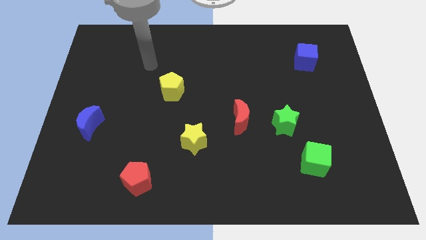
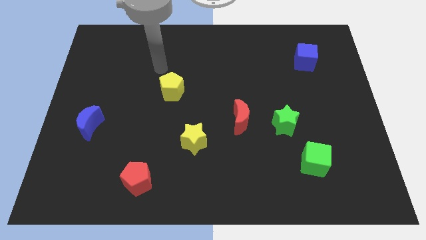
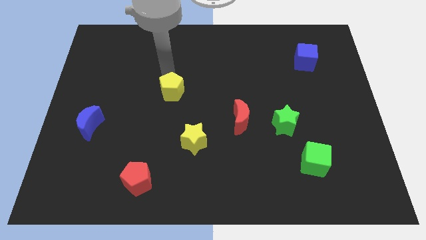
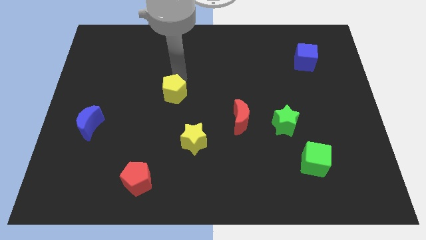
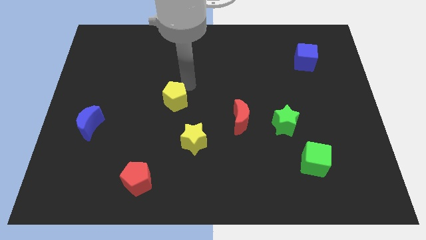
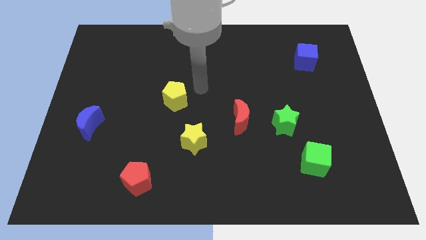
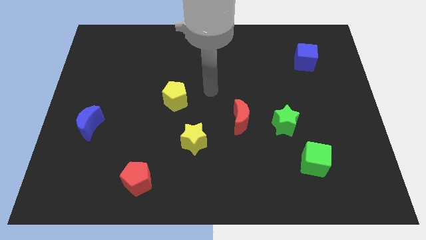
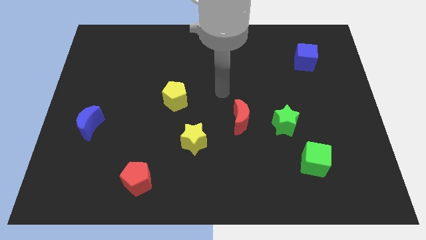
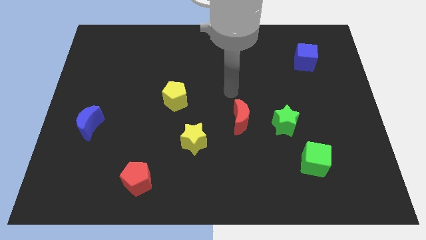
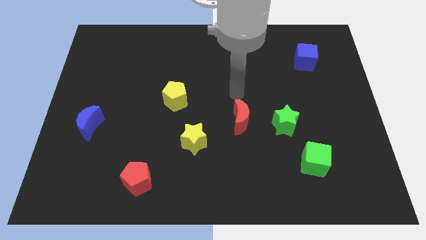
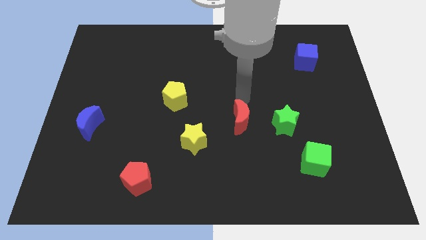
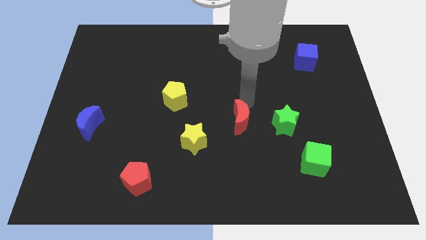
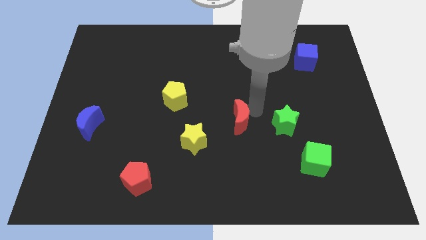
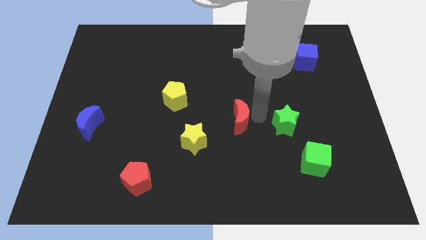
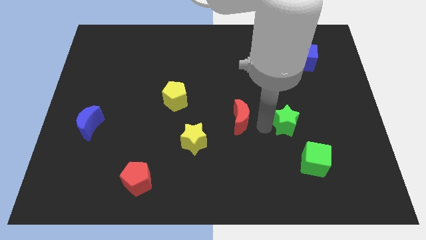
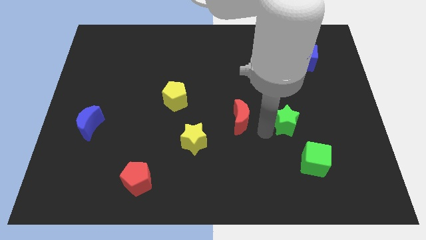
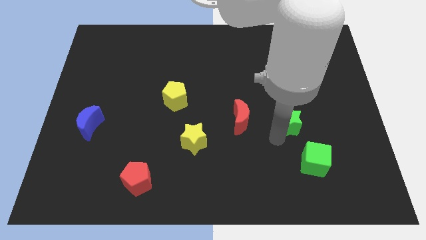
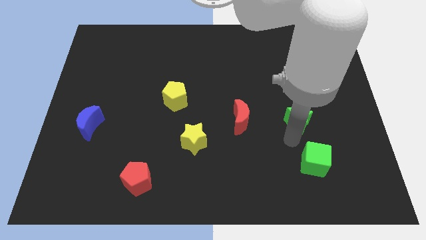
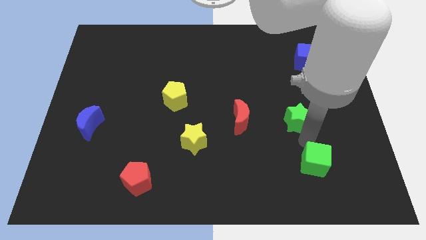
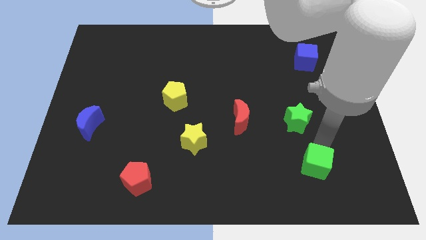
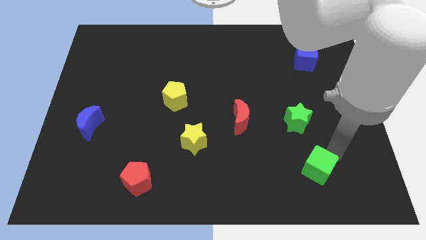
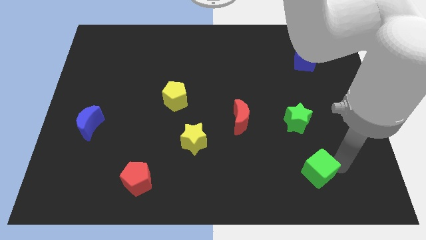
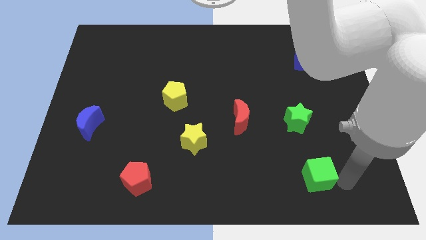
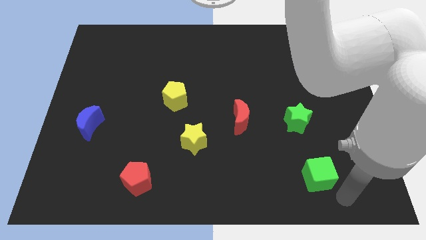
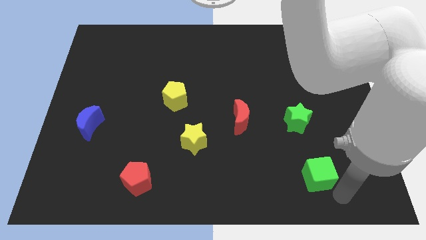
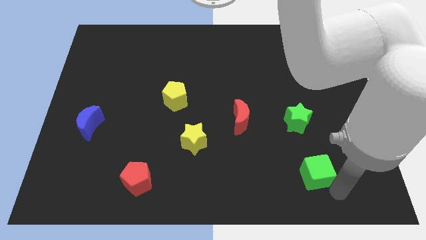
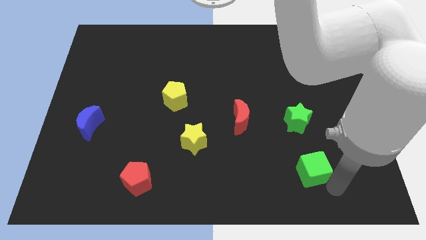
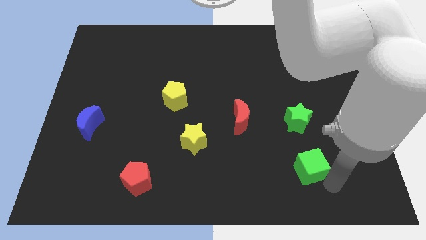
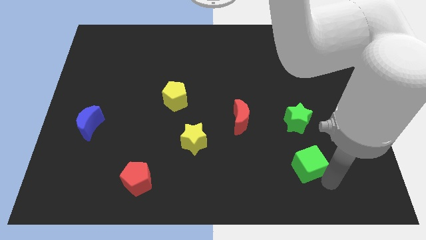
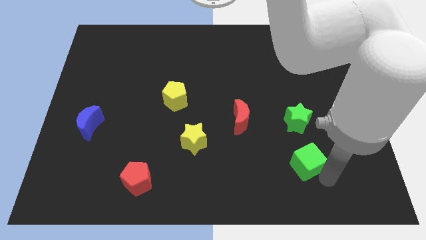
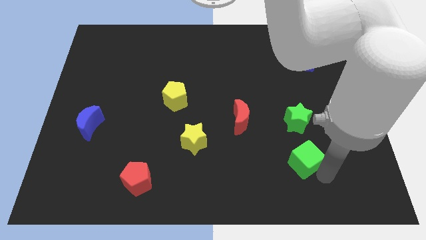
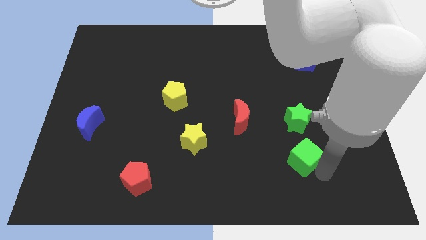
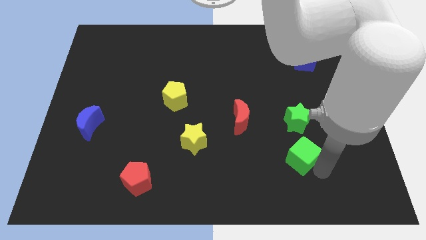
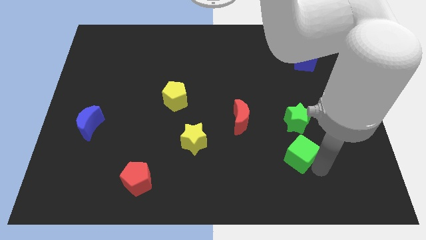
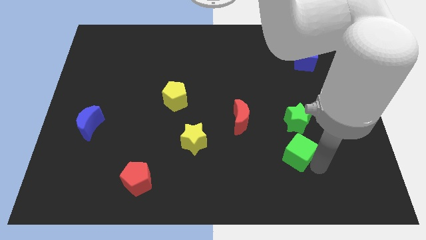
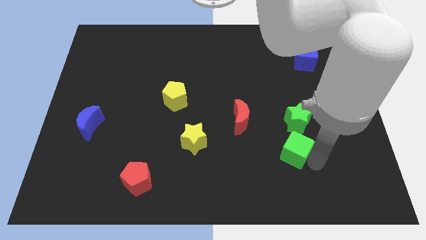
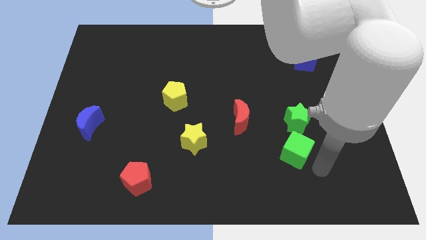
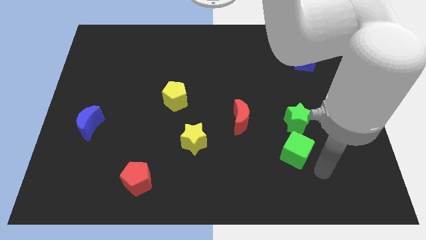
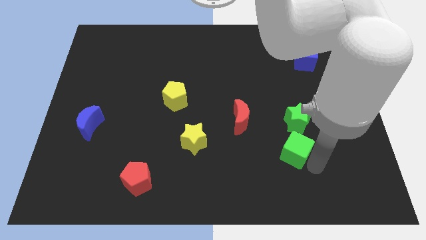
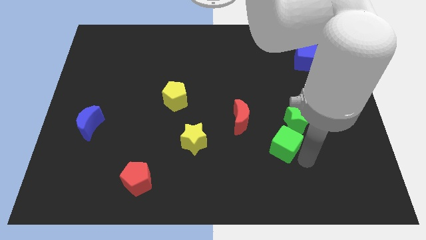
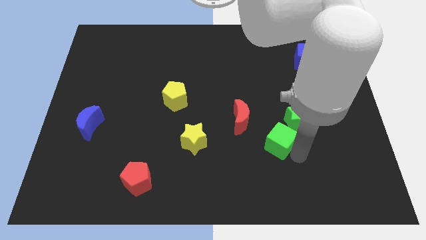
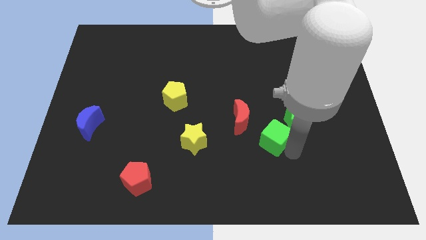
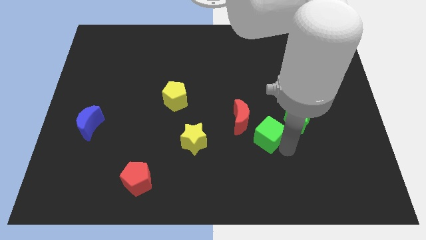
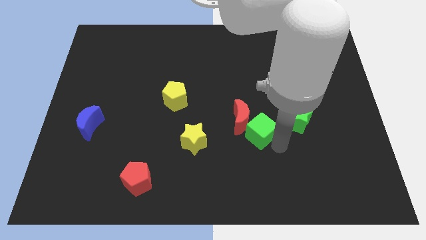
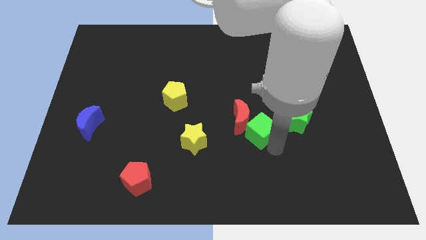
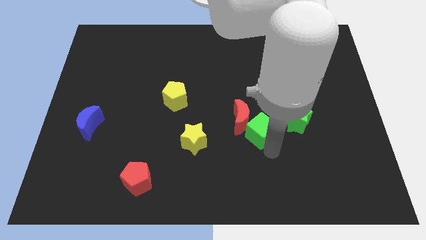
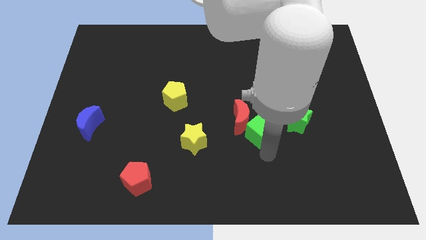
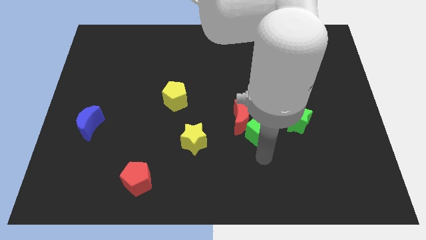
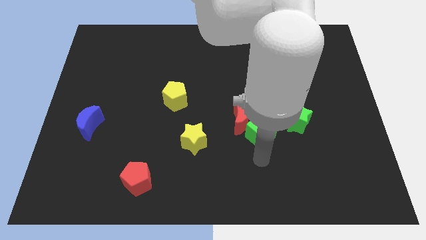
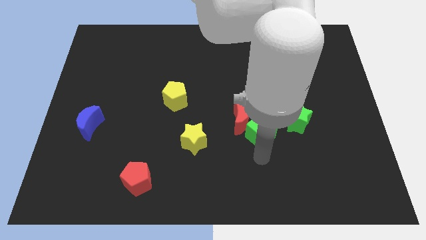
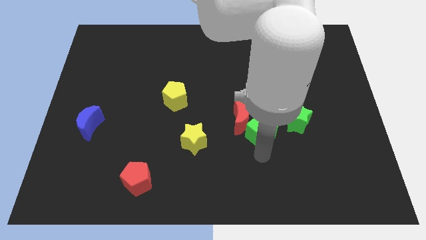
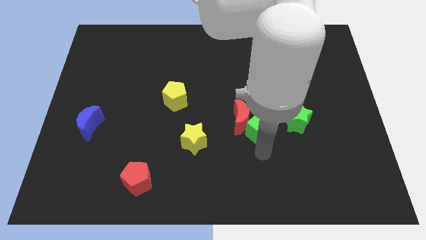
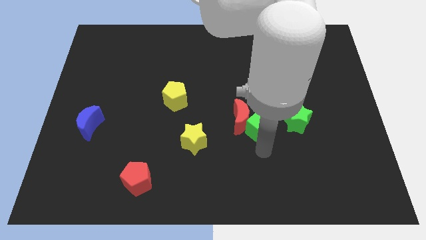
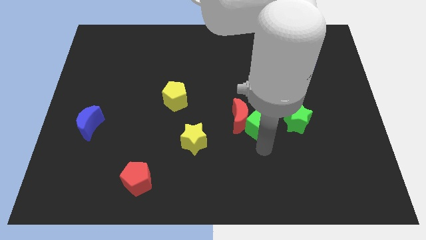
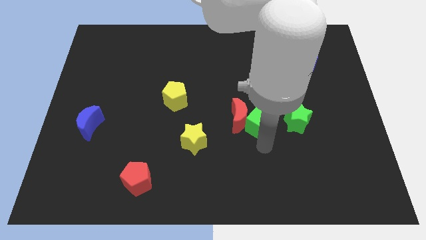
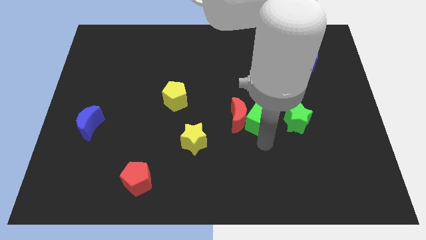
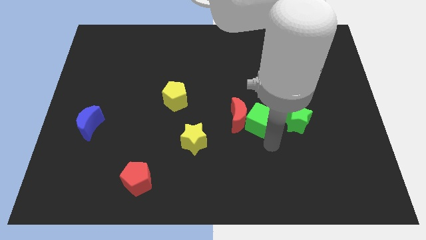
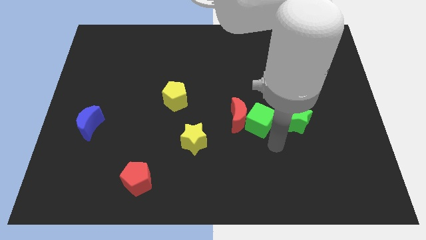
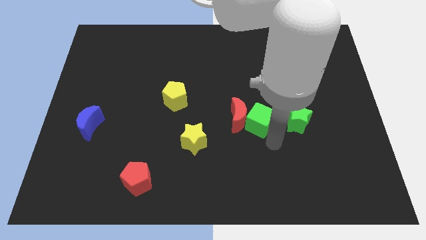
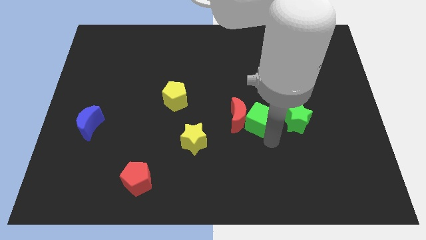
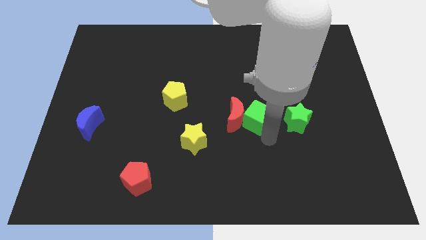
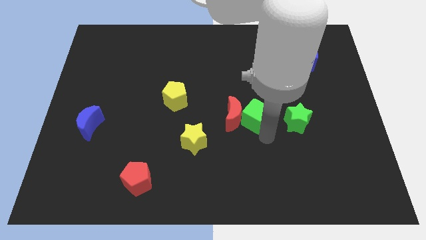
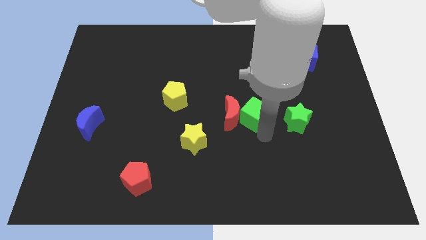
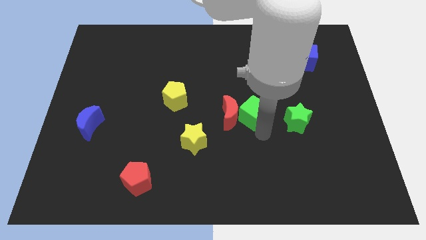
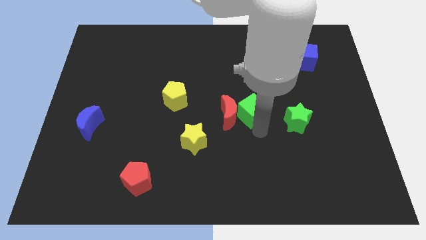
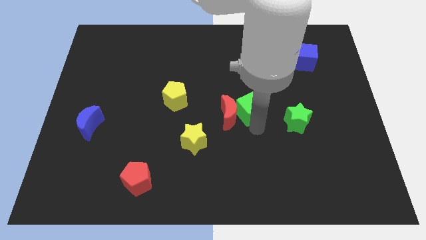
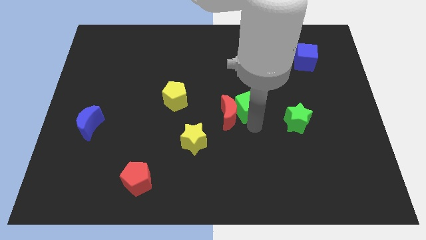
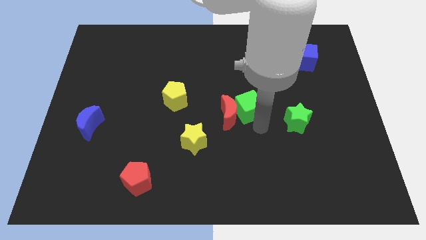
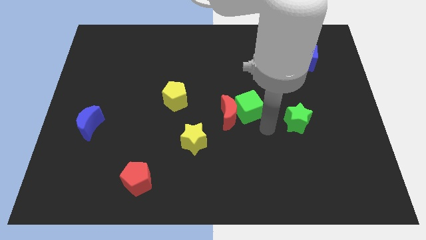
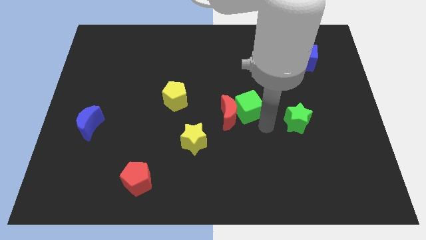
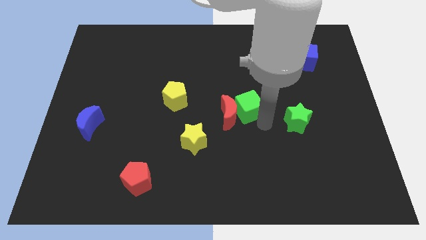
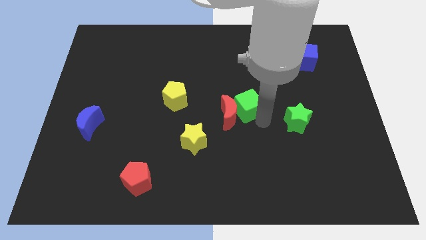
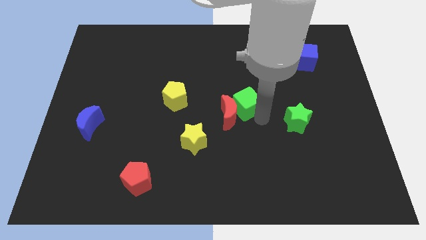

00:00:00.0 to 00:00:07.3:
push the green cube up and left

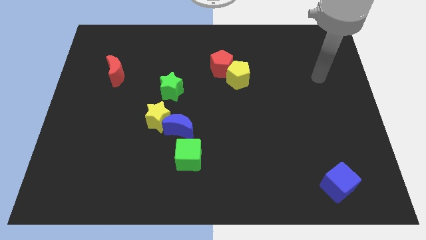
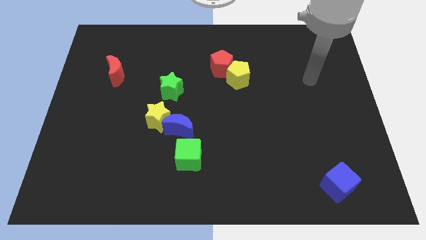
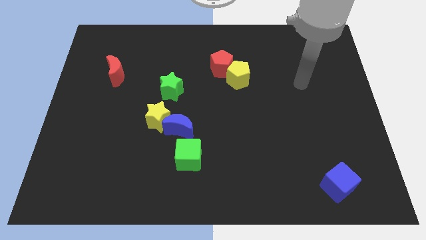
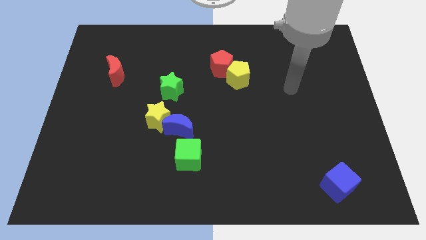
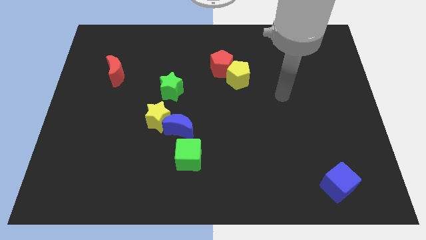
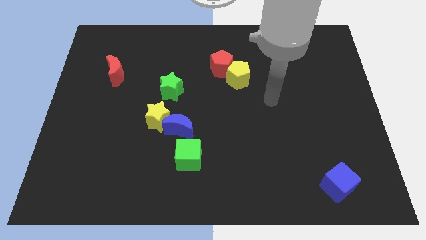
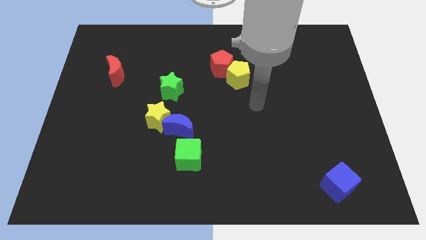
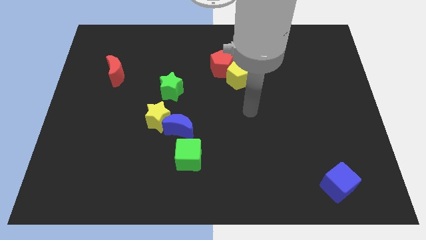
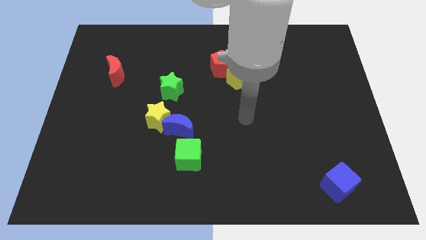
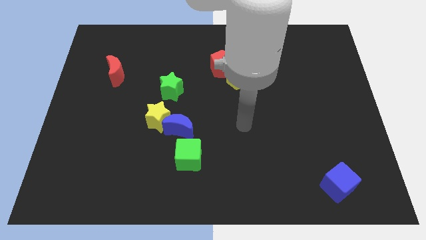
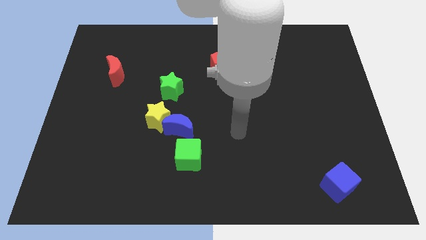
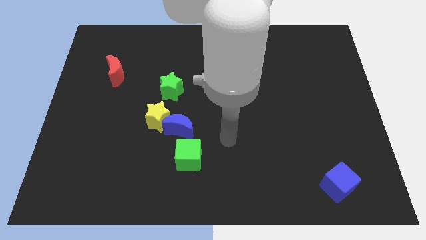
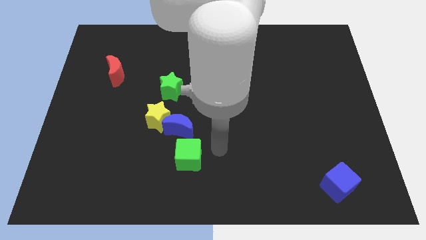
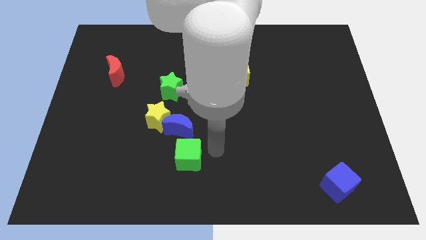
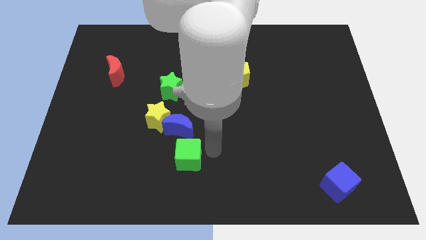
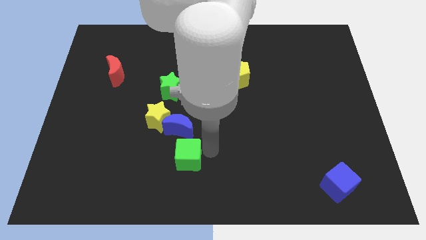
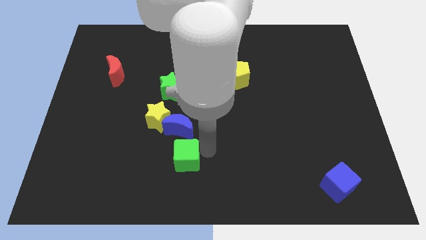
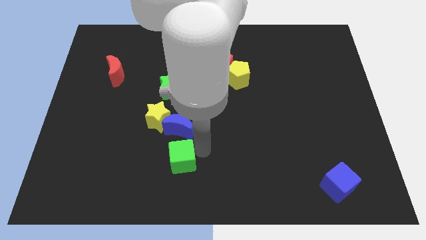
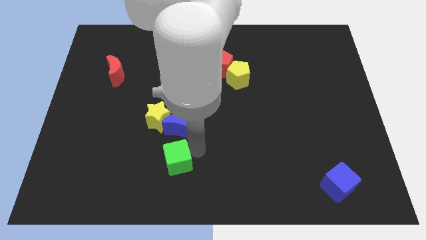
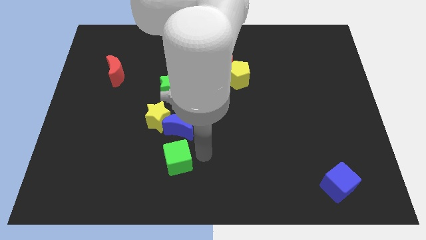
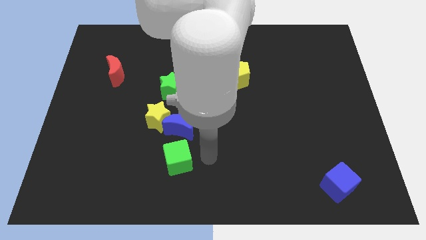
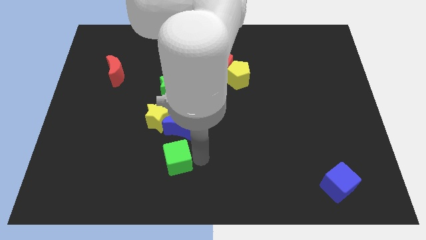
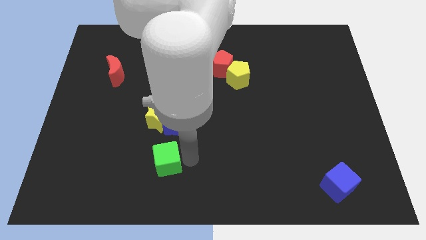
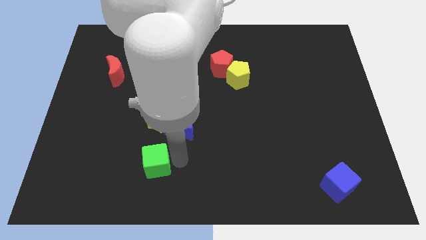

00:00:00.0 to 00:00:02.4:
move the green cube somewhat left
